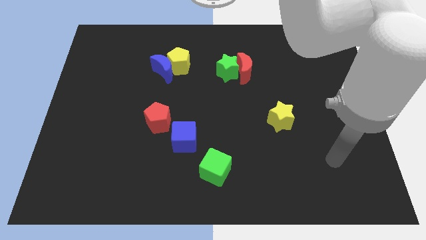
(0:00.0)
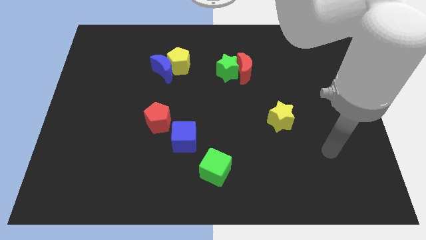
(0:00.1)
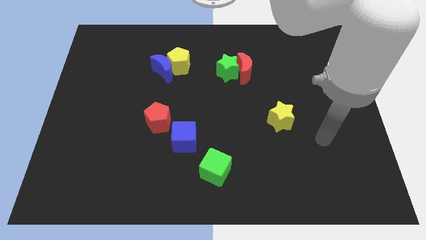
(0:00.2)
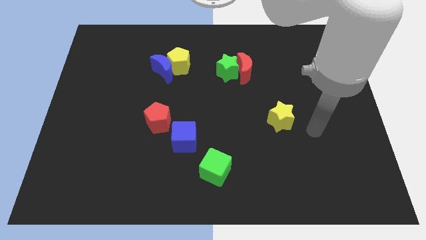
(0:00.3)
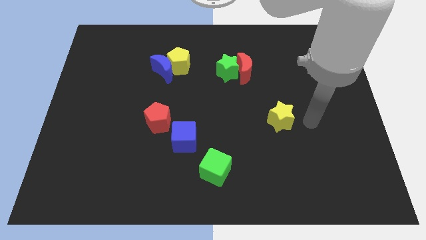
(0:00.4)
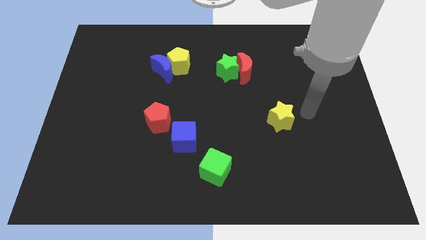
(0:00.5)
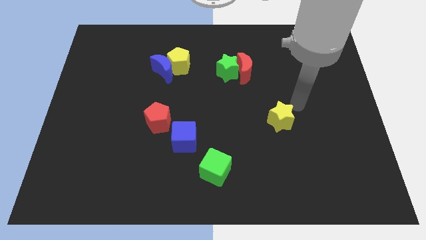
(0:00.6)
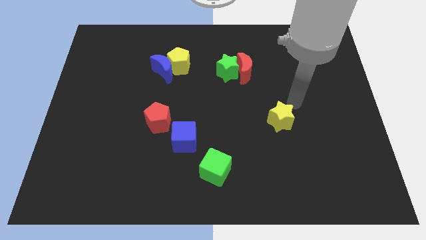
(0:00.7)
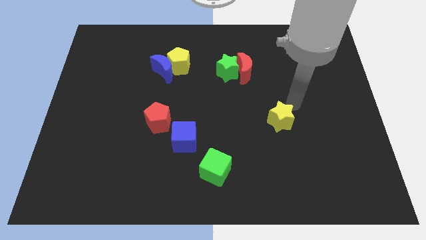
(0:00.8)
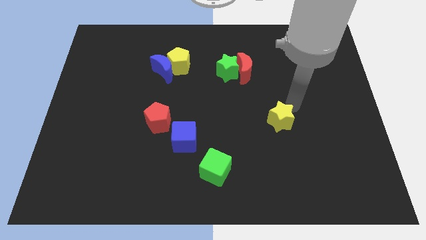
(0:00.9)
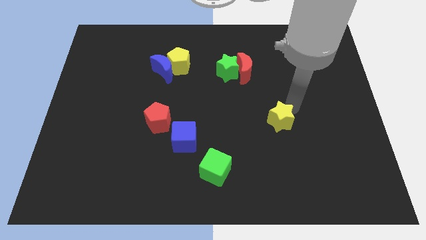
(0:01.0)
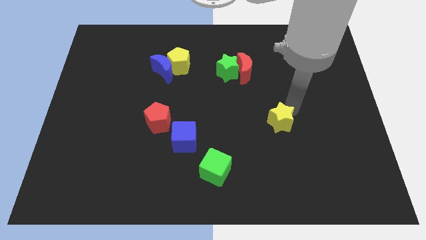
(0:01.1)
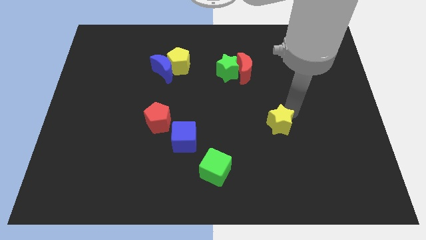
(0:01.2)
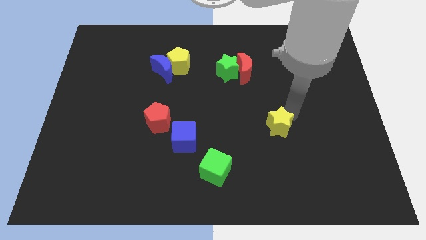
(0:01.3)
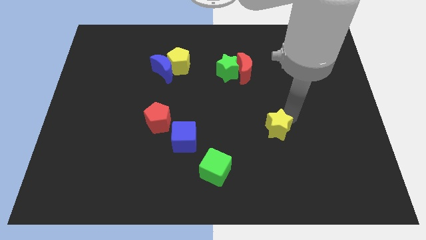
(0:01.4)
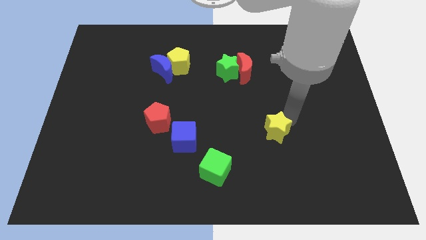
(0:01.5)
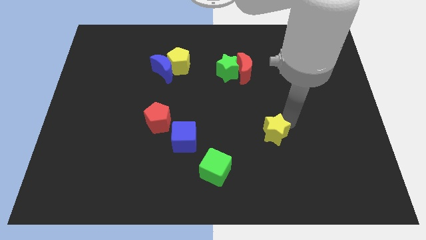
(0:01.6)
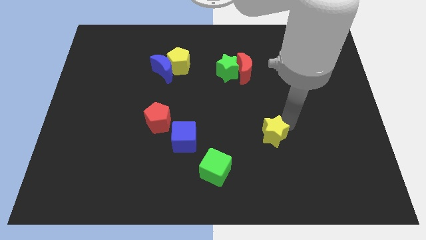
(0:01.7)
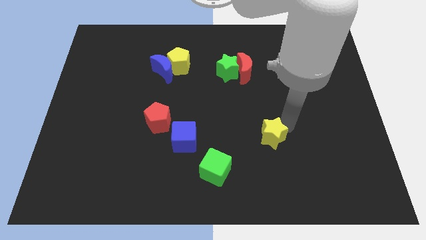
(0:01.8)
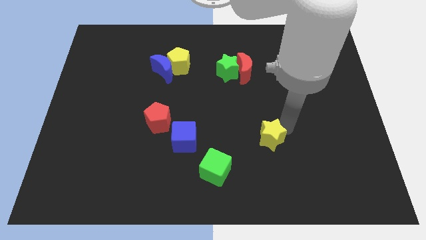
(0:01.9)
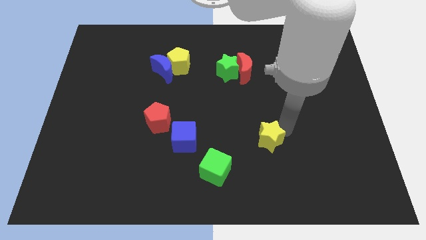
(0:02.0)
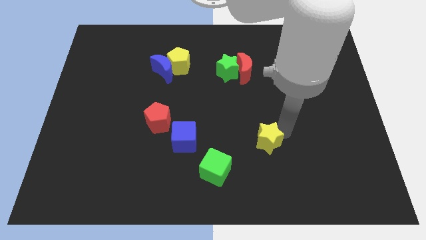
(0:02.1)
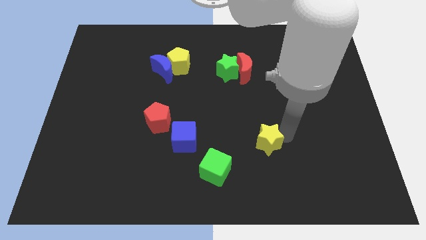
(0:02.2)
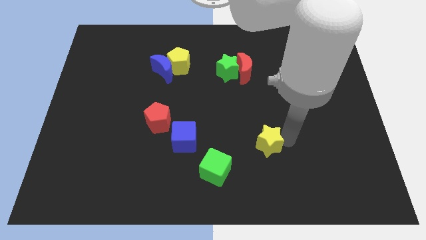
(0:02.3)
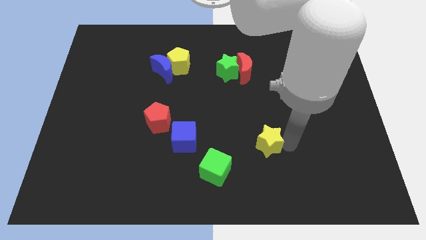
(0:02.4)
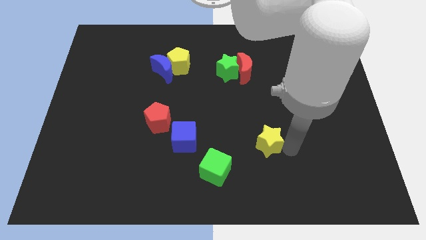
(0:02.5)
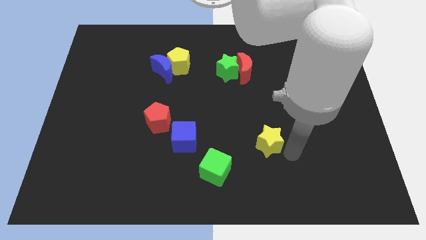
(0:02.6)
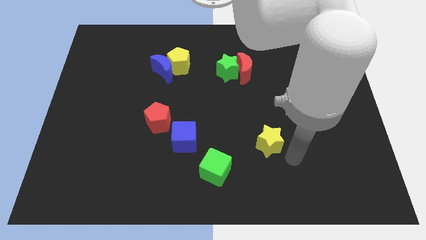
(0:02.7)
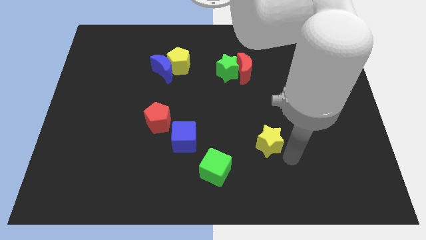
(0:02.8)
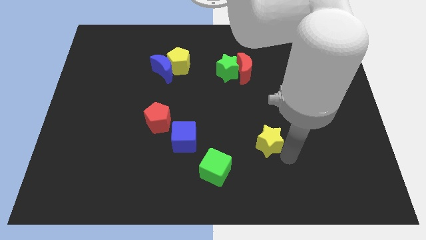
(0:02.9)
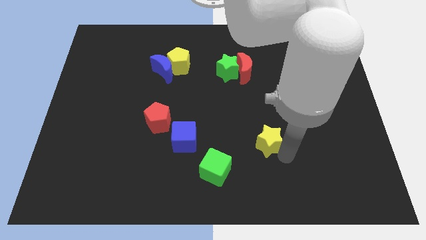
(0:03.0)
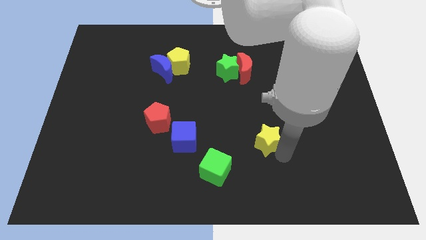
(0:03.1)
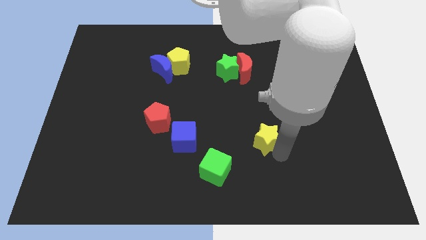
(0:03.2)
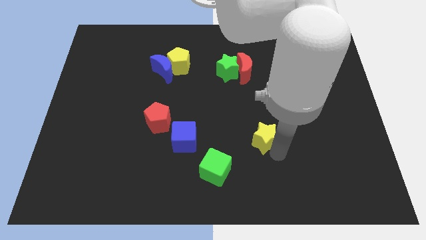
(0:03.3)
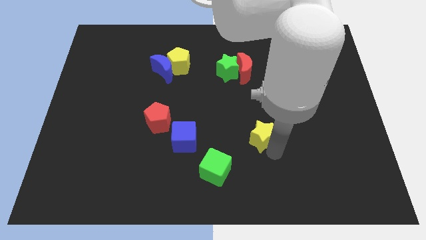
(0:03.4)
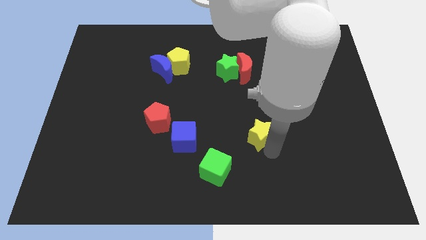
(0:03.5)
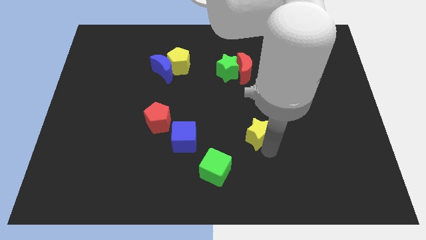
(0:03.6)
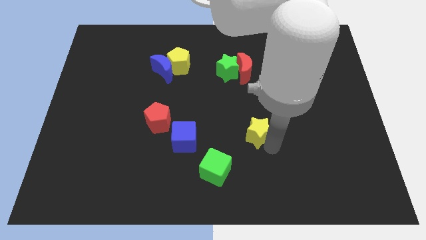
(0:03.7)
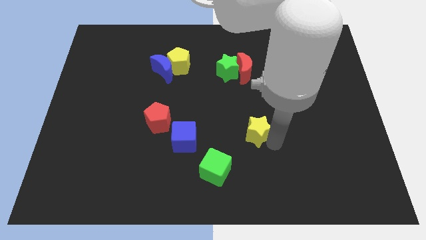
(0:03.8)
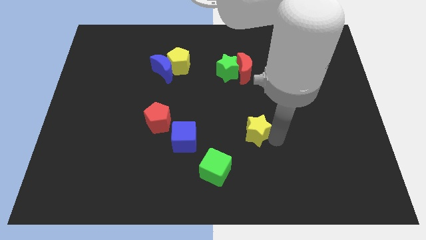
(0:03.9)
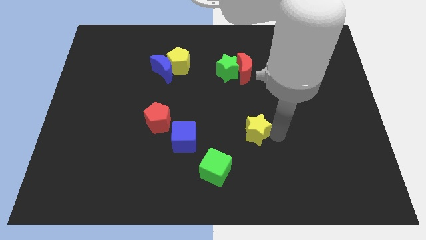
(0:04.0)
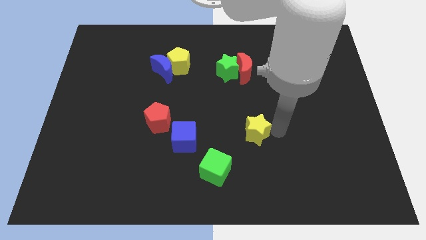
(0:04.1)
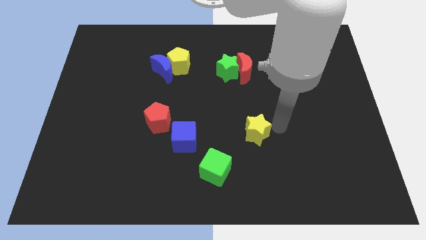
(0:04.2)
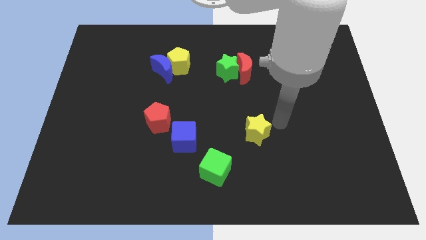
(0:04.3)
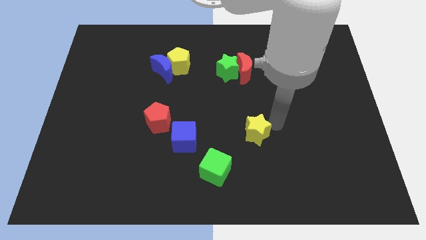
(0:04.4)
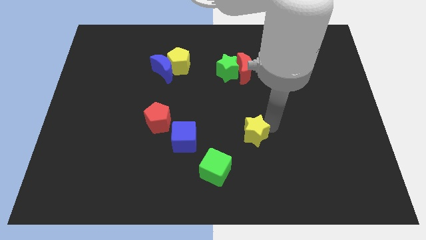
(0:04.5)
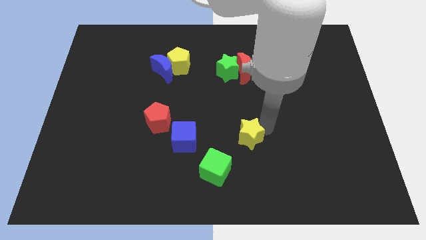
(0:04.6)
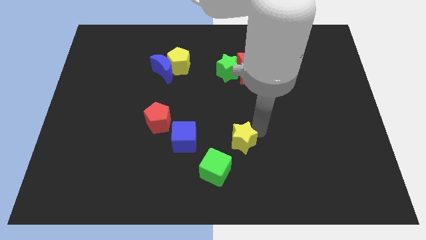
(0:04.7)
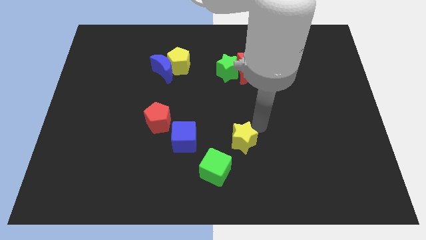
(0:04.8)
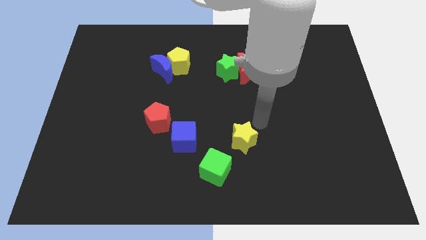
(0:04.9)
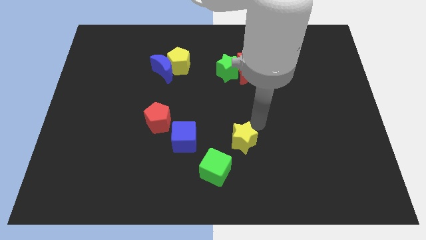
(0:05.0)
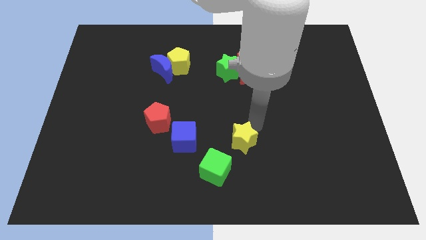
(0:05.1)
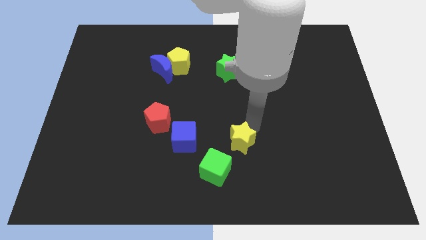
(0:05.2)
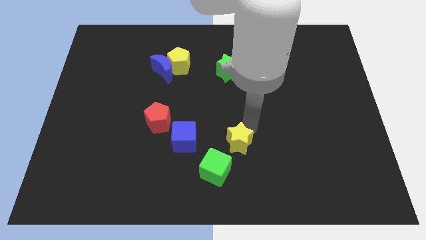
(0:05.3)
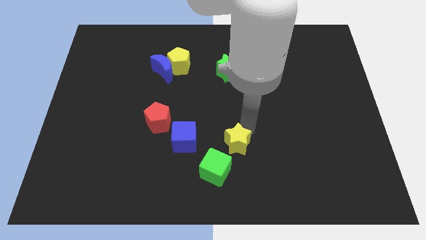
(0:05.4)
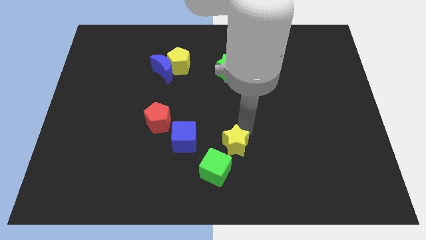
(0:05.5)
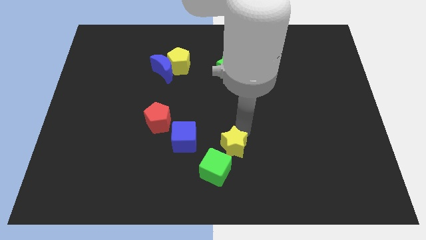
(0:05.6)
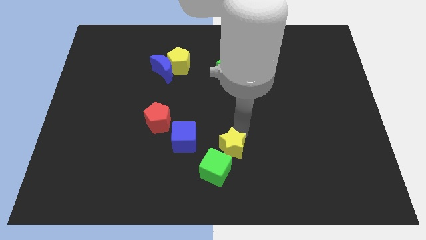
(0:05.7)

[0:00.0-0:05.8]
move the yellow star close to the green cube

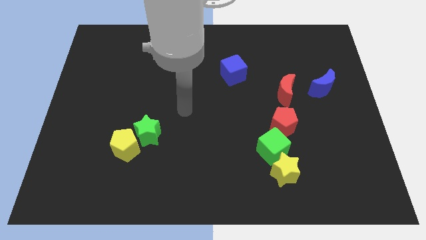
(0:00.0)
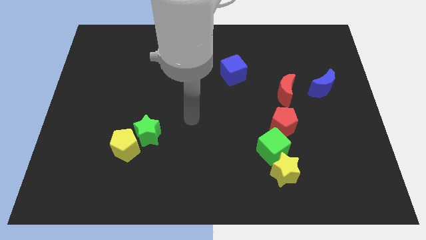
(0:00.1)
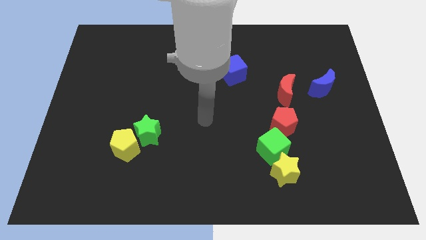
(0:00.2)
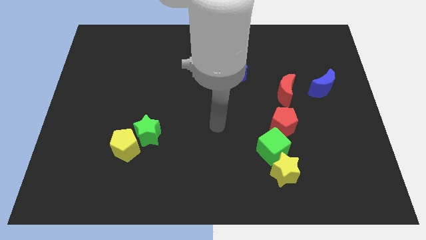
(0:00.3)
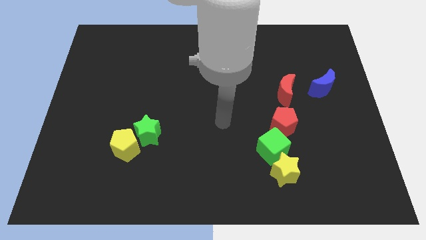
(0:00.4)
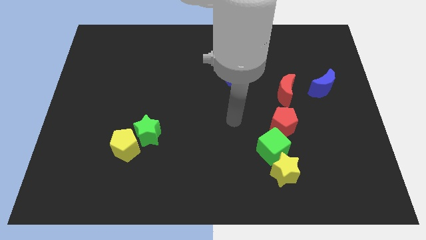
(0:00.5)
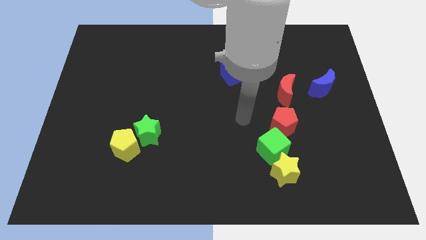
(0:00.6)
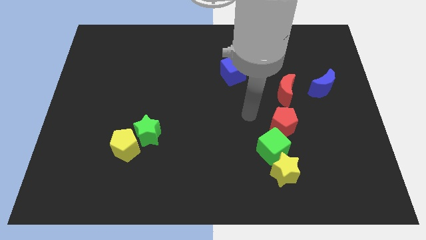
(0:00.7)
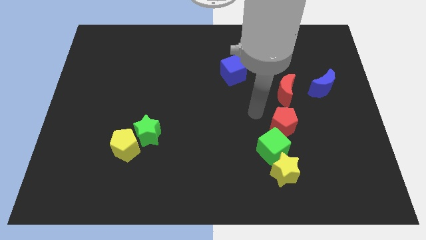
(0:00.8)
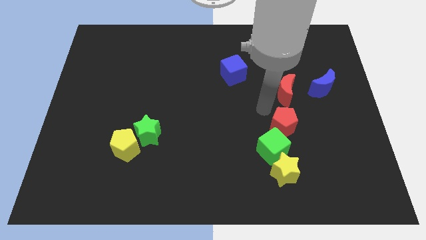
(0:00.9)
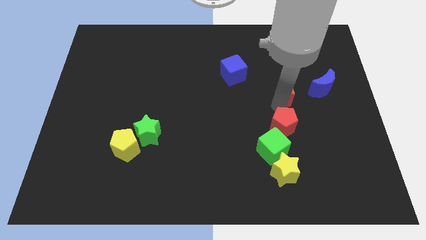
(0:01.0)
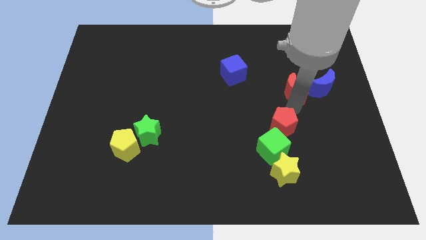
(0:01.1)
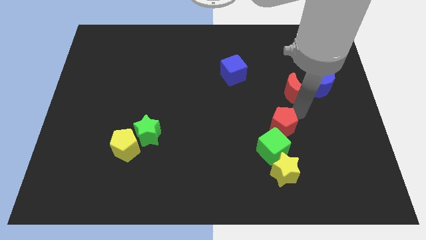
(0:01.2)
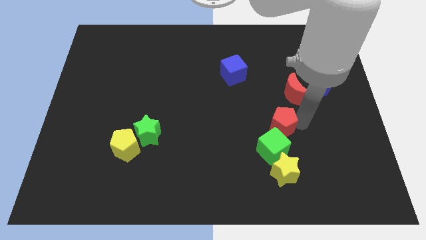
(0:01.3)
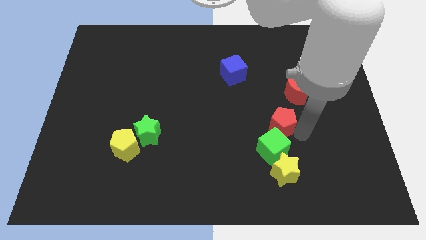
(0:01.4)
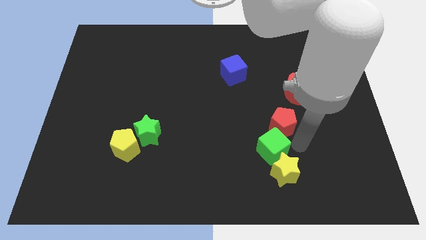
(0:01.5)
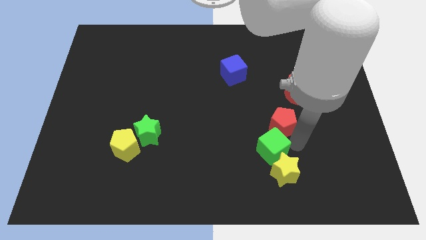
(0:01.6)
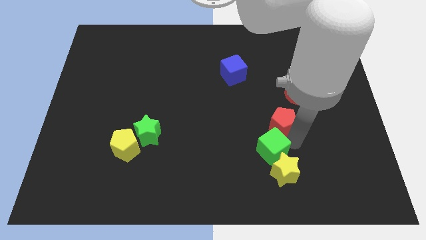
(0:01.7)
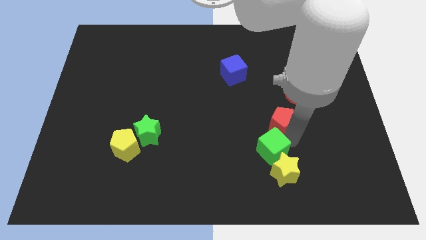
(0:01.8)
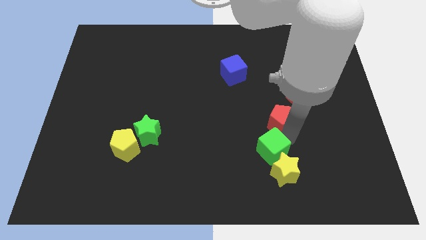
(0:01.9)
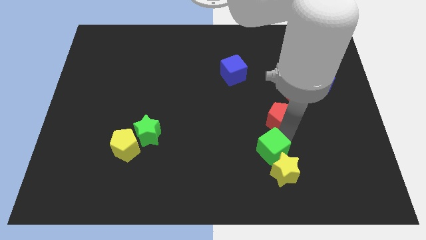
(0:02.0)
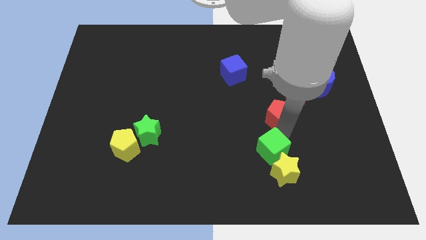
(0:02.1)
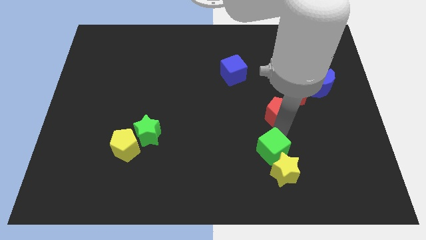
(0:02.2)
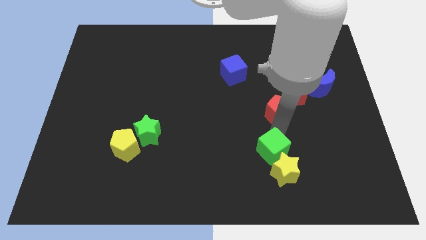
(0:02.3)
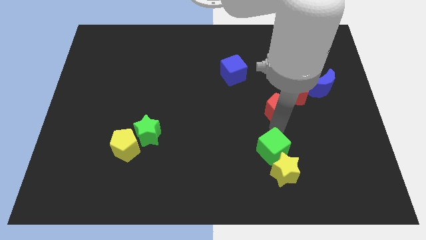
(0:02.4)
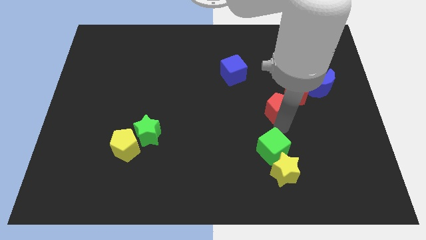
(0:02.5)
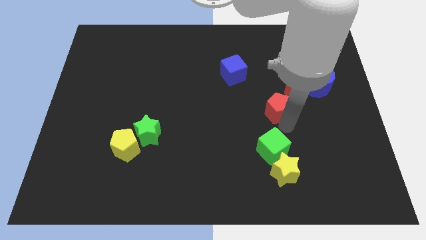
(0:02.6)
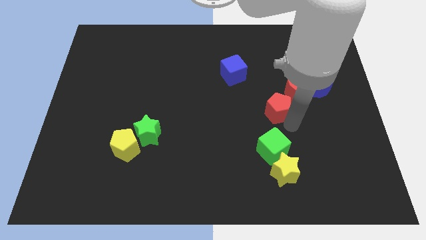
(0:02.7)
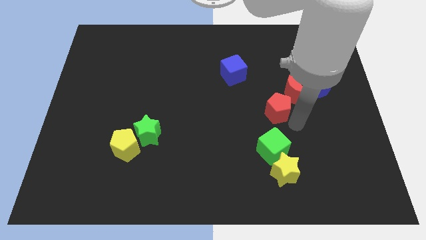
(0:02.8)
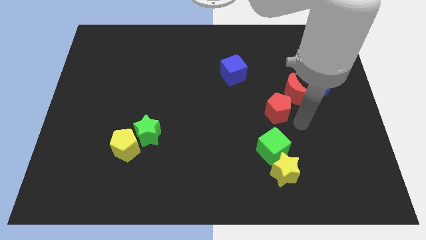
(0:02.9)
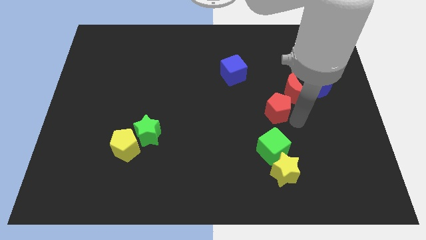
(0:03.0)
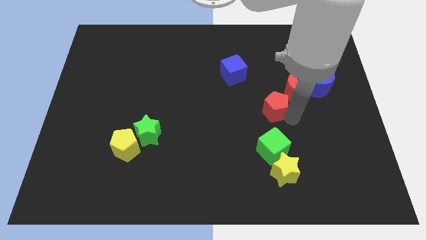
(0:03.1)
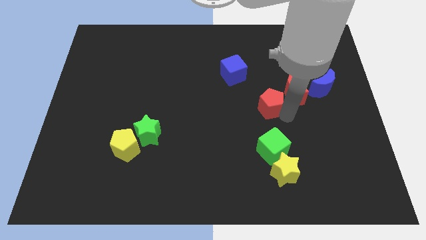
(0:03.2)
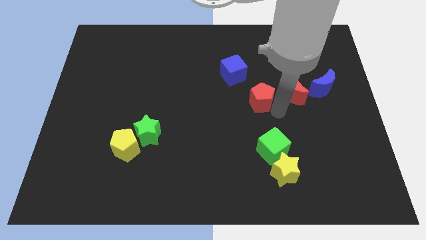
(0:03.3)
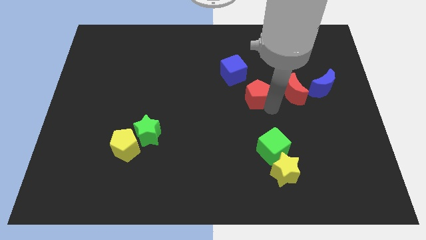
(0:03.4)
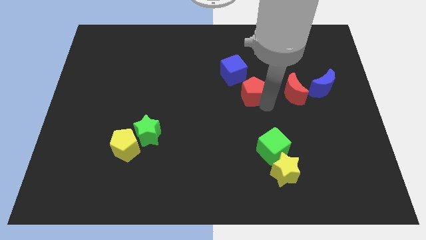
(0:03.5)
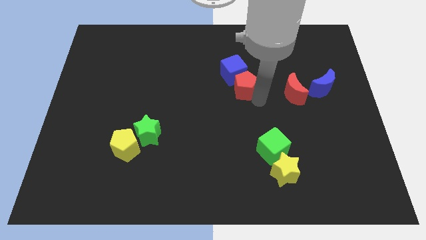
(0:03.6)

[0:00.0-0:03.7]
push the red pentagon towards the blue cube
